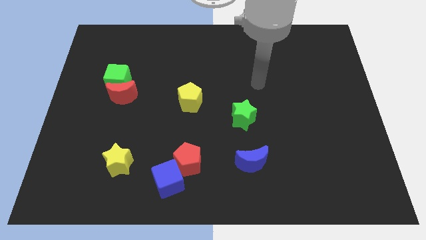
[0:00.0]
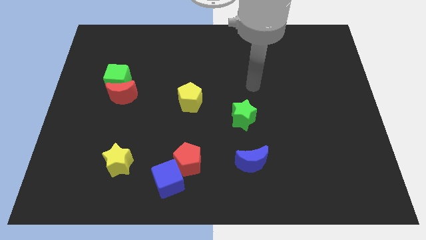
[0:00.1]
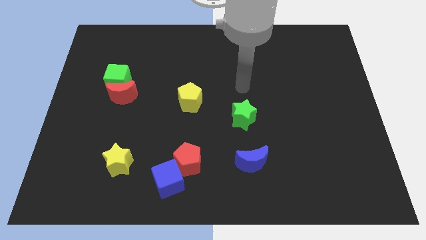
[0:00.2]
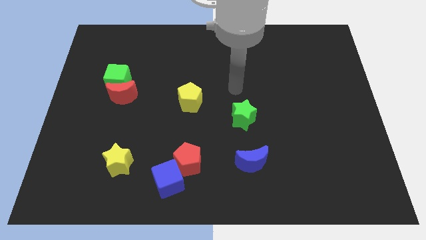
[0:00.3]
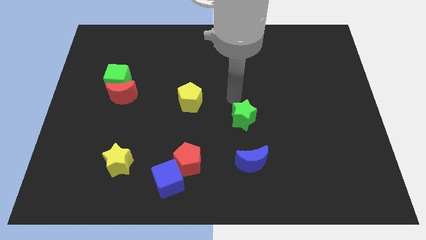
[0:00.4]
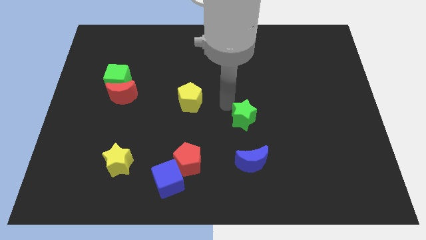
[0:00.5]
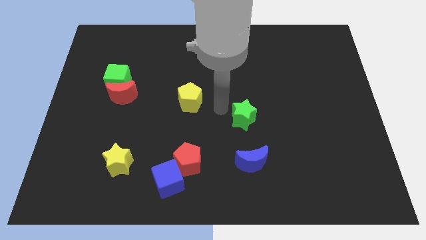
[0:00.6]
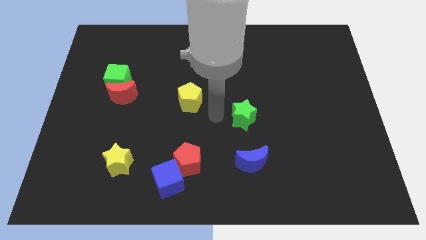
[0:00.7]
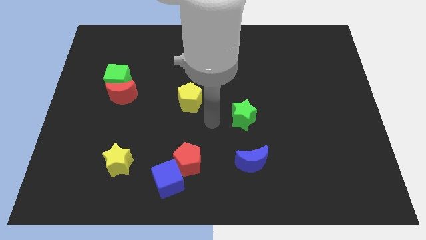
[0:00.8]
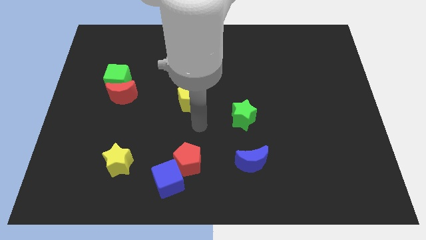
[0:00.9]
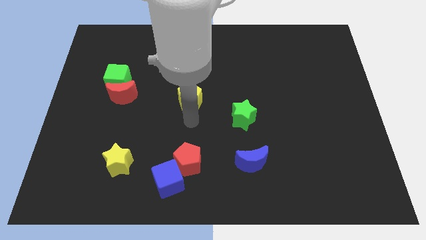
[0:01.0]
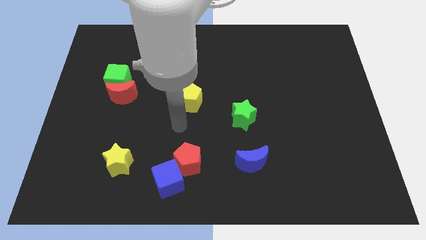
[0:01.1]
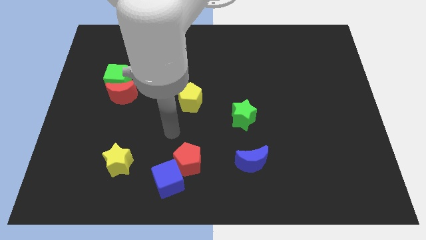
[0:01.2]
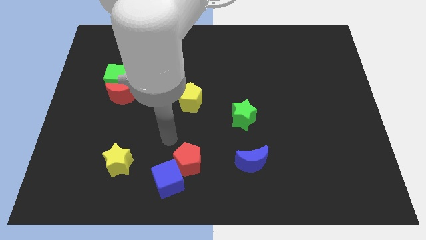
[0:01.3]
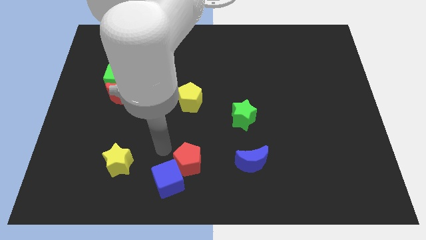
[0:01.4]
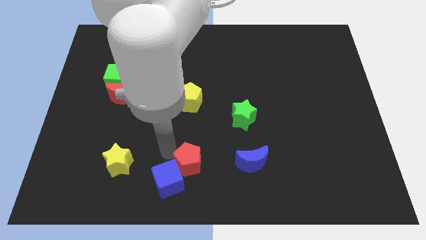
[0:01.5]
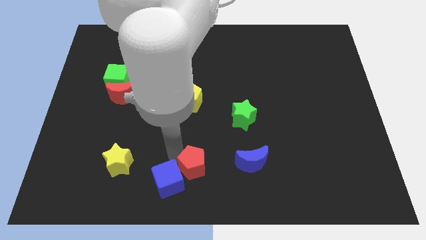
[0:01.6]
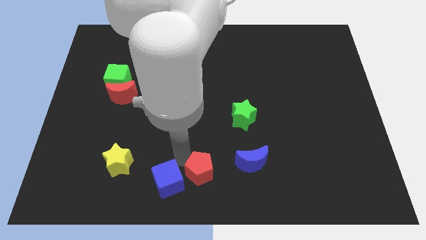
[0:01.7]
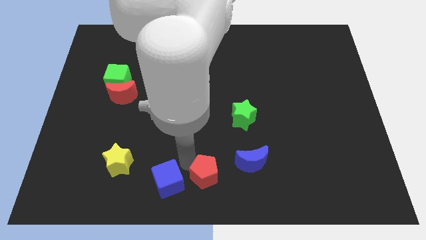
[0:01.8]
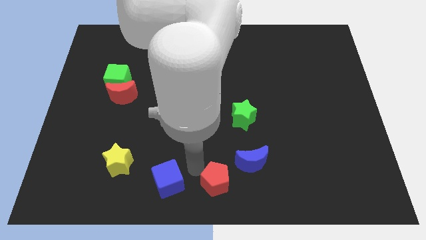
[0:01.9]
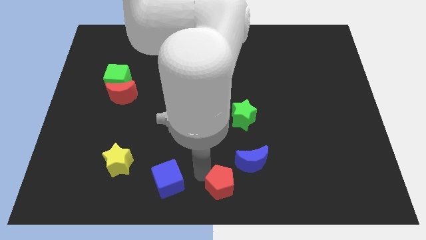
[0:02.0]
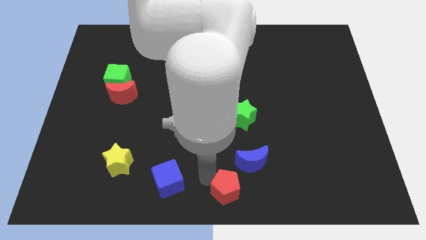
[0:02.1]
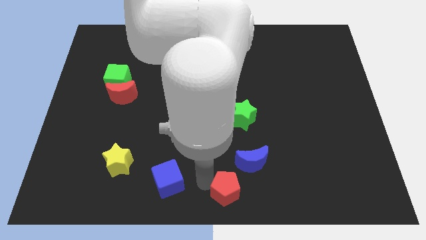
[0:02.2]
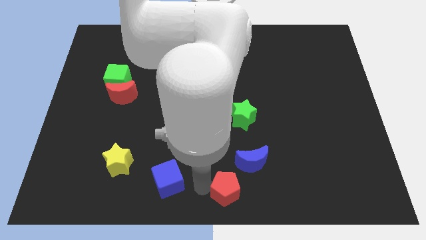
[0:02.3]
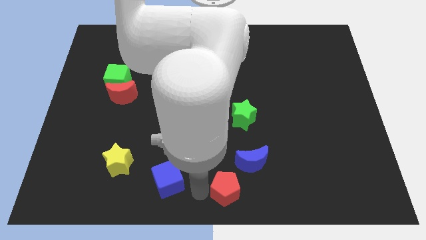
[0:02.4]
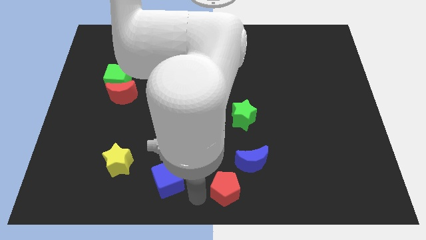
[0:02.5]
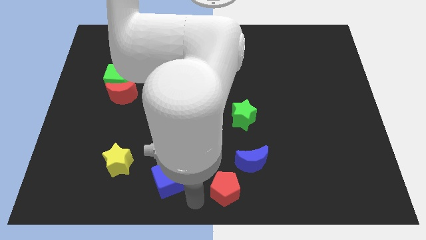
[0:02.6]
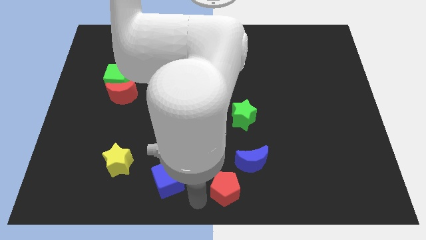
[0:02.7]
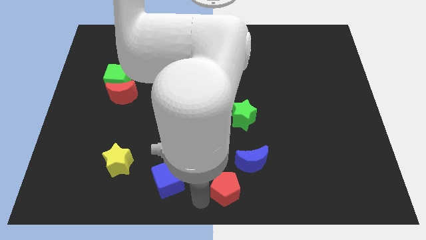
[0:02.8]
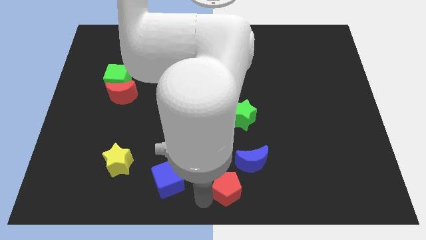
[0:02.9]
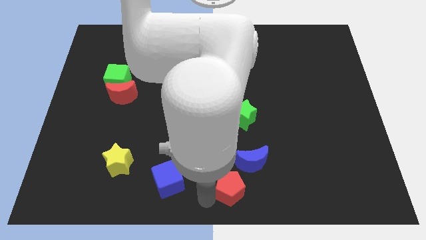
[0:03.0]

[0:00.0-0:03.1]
move the red pentagon a little to the right

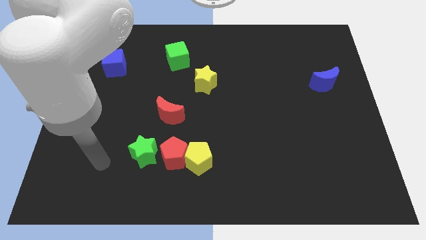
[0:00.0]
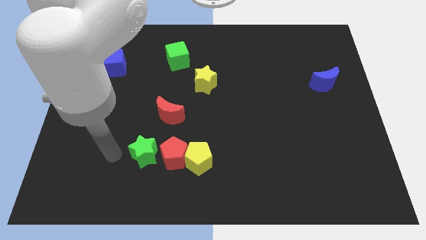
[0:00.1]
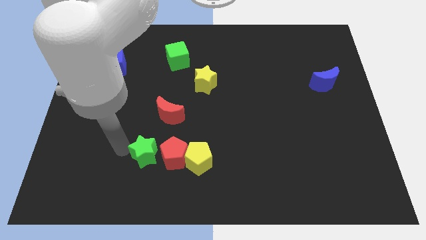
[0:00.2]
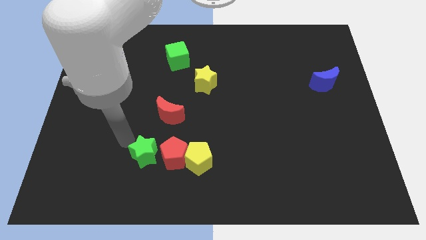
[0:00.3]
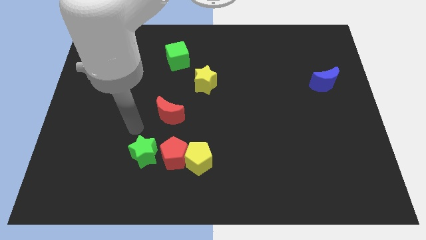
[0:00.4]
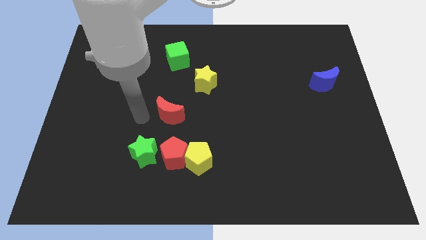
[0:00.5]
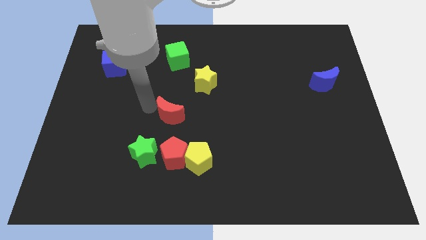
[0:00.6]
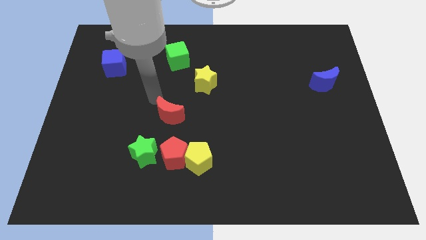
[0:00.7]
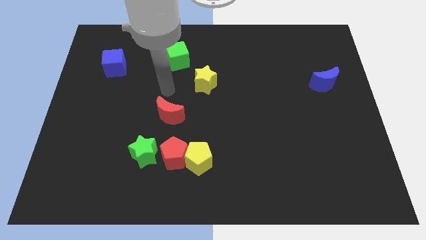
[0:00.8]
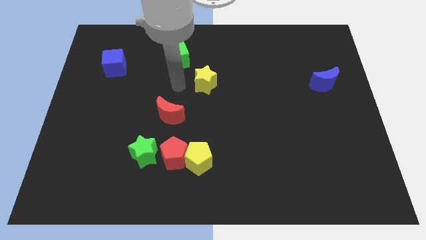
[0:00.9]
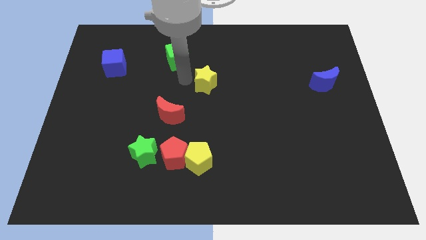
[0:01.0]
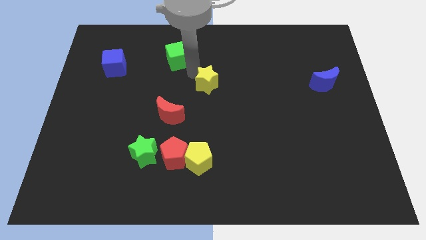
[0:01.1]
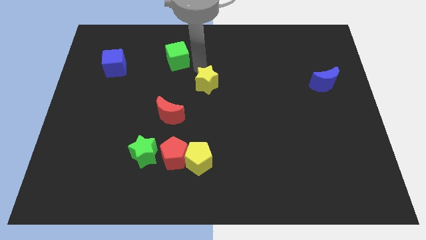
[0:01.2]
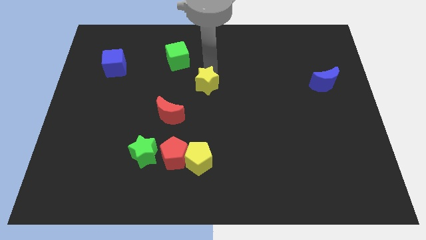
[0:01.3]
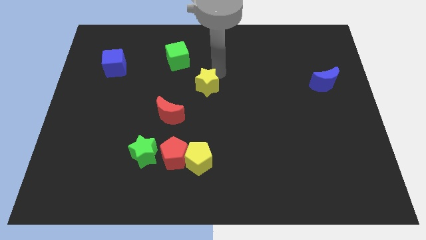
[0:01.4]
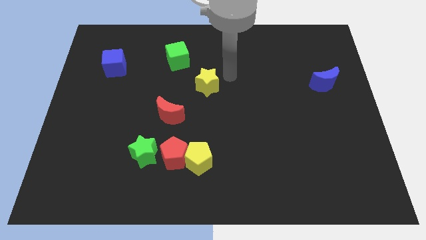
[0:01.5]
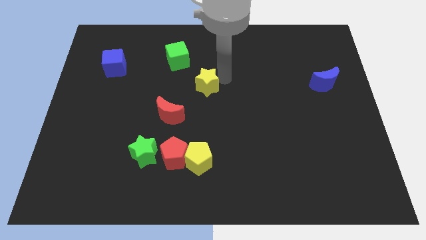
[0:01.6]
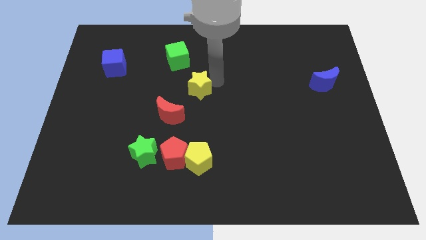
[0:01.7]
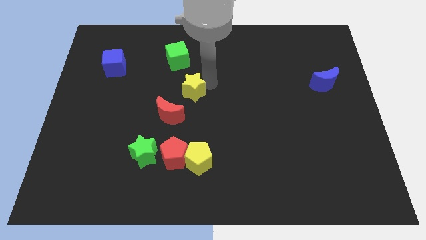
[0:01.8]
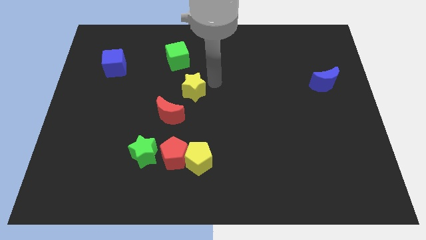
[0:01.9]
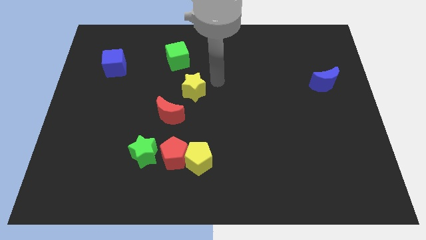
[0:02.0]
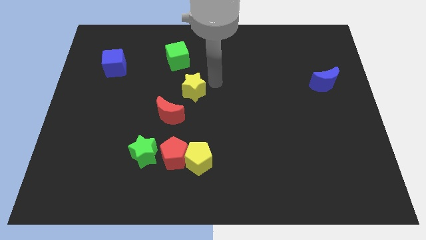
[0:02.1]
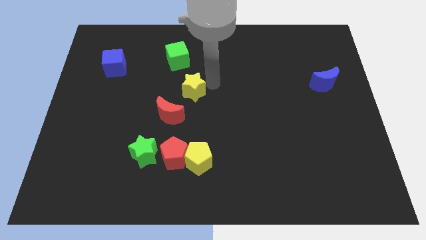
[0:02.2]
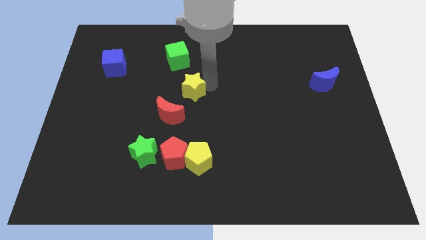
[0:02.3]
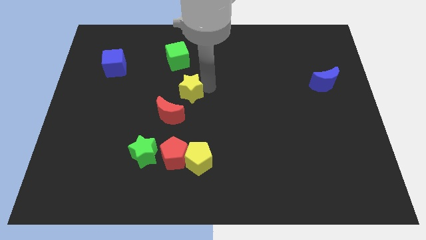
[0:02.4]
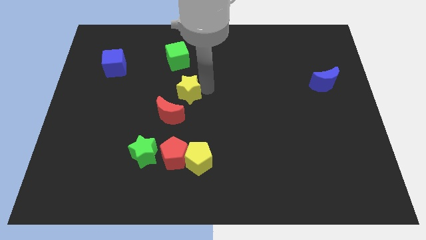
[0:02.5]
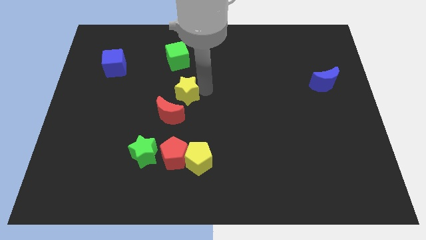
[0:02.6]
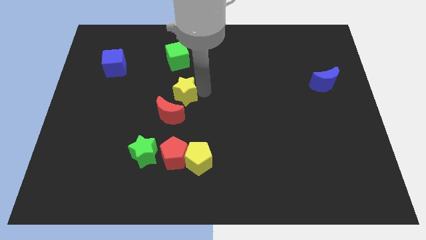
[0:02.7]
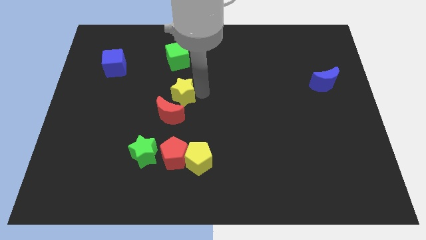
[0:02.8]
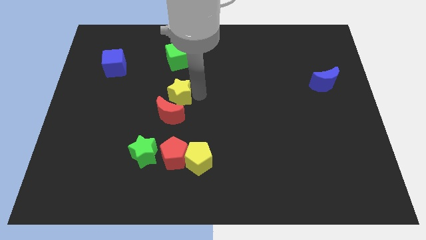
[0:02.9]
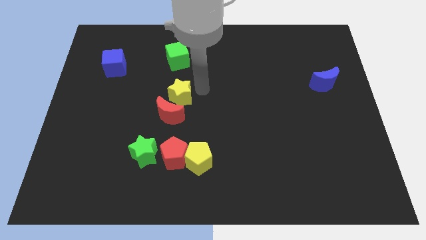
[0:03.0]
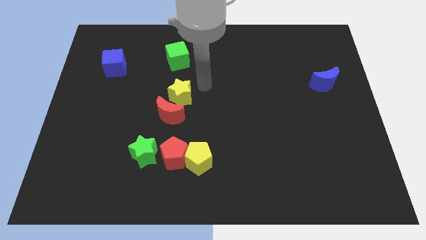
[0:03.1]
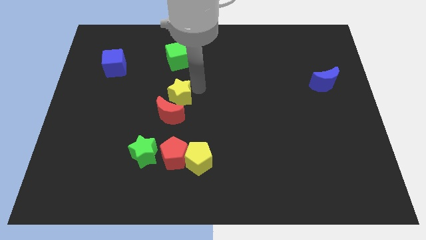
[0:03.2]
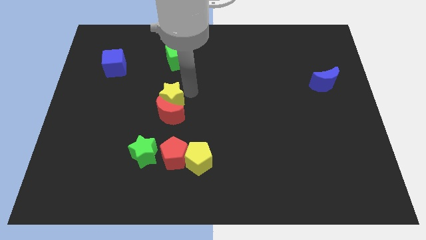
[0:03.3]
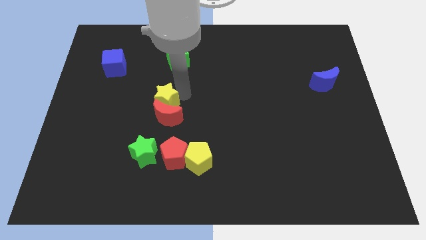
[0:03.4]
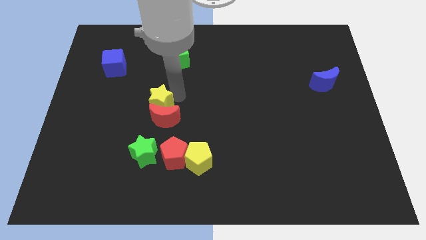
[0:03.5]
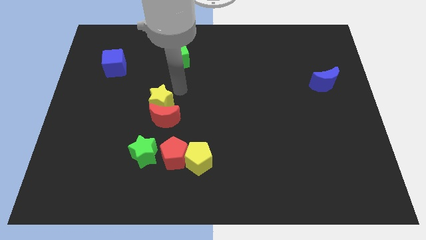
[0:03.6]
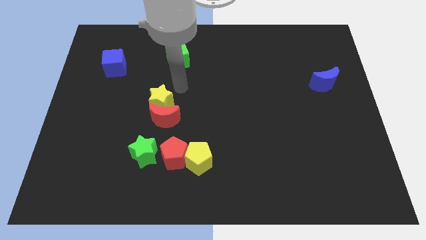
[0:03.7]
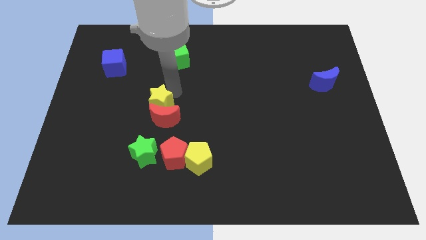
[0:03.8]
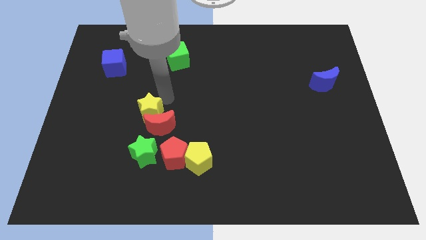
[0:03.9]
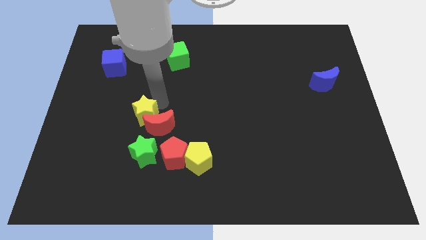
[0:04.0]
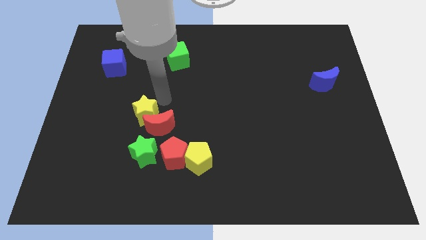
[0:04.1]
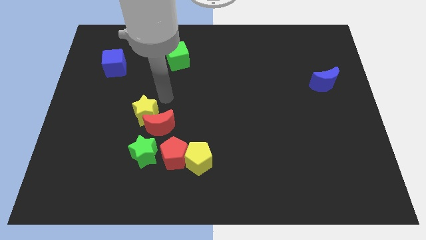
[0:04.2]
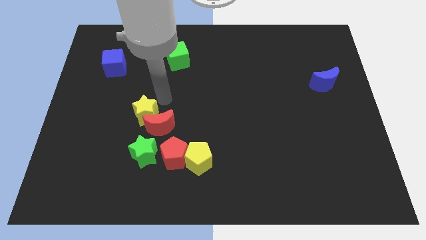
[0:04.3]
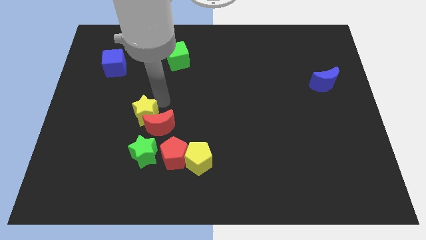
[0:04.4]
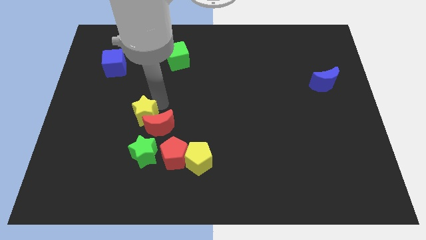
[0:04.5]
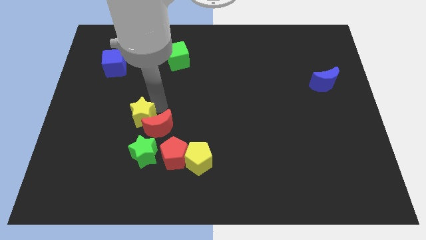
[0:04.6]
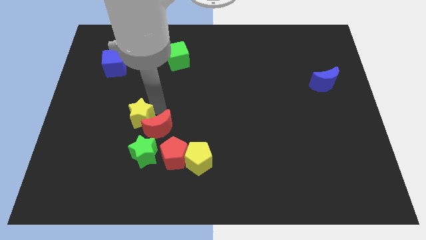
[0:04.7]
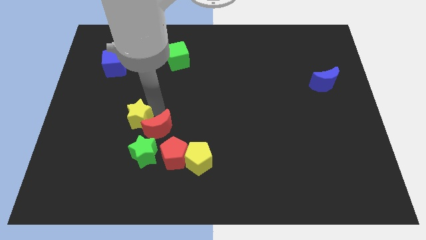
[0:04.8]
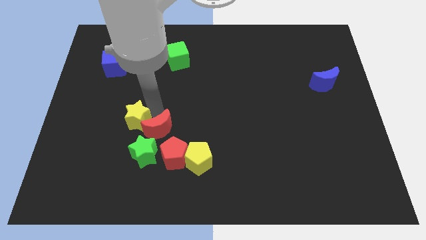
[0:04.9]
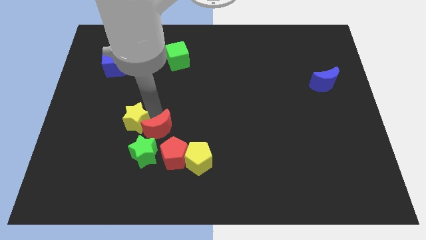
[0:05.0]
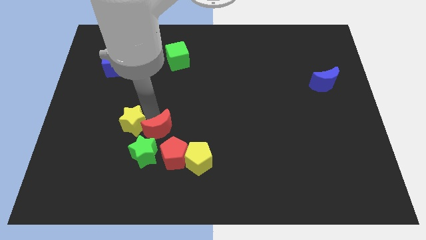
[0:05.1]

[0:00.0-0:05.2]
push the yellow star downwards and left
